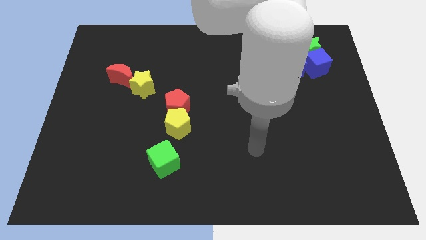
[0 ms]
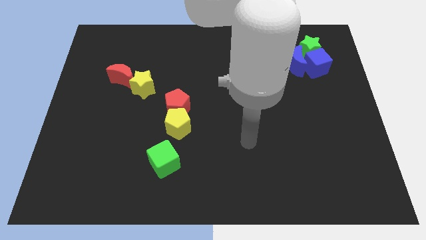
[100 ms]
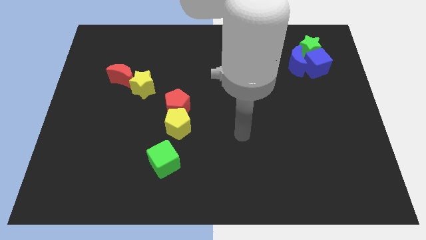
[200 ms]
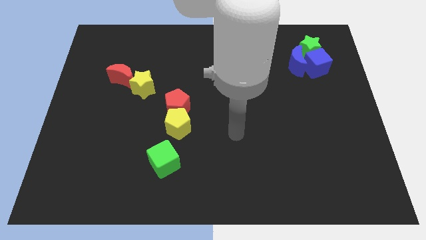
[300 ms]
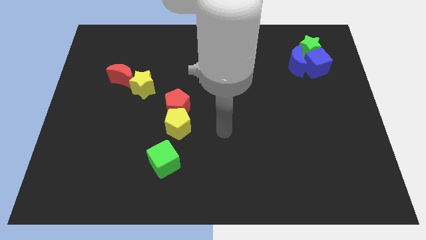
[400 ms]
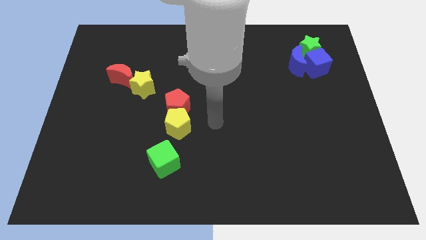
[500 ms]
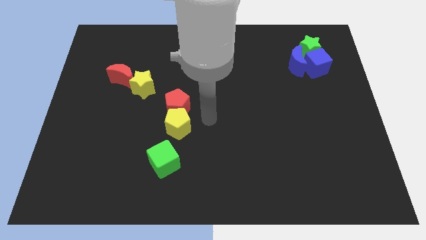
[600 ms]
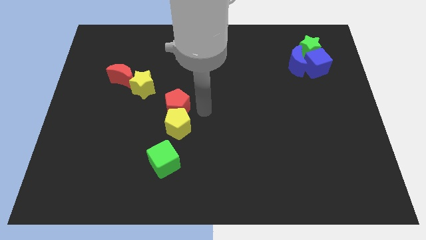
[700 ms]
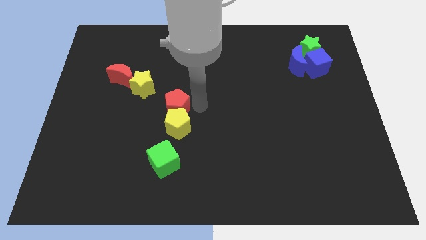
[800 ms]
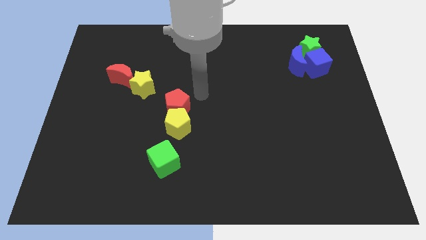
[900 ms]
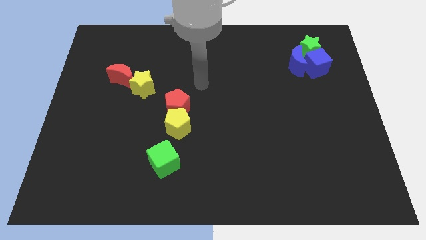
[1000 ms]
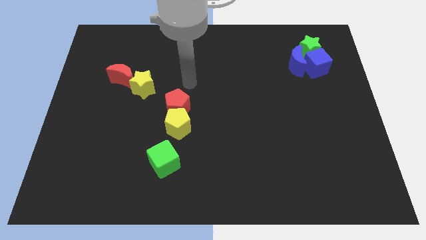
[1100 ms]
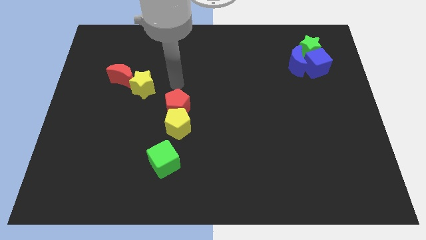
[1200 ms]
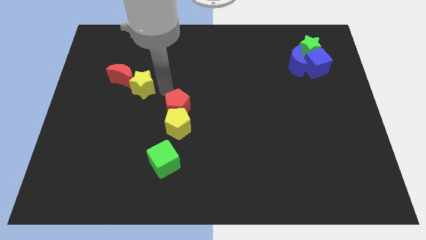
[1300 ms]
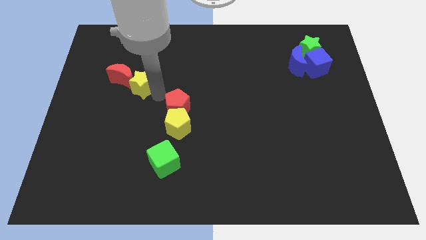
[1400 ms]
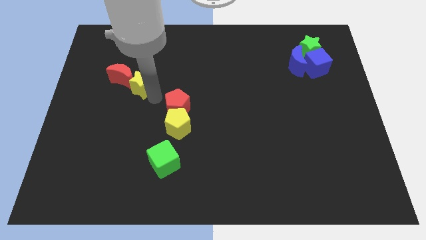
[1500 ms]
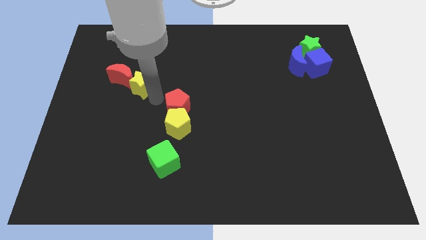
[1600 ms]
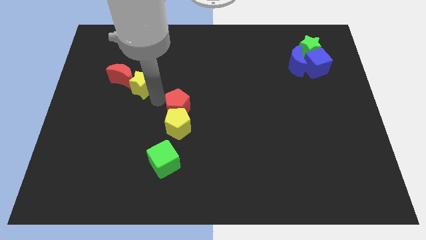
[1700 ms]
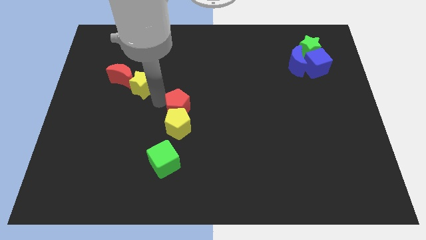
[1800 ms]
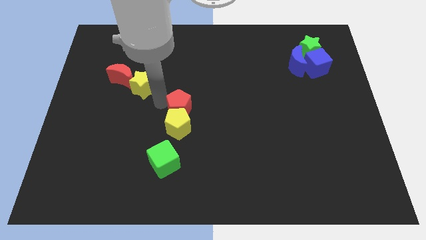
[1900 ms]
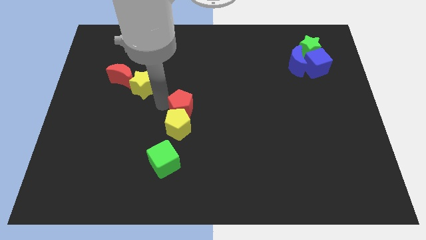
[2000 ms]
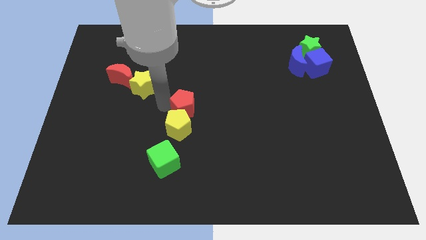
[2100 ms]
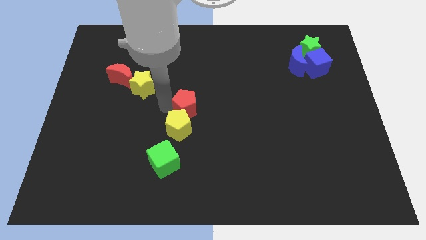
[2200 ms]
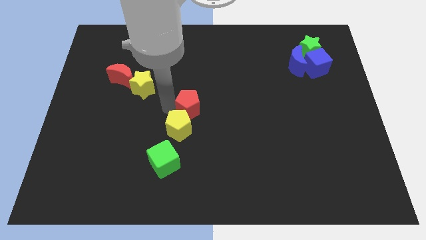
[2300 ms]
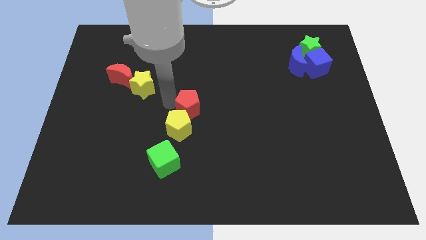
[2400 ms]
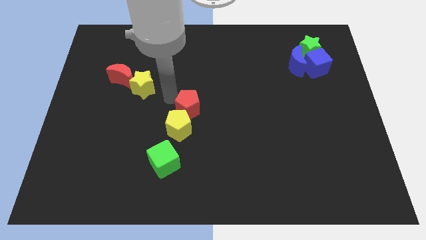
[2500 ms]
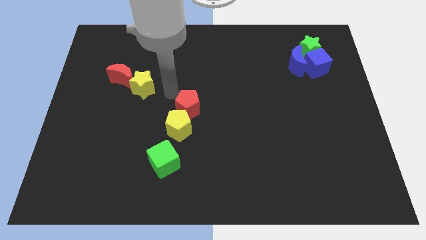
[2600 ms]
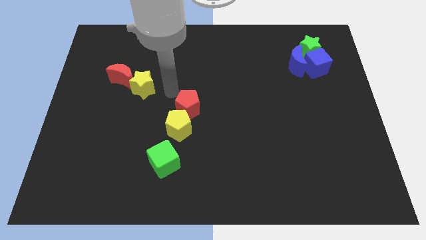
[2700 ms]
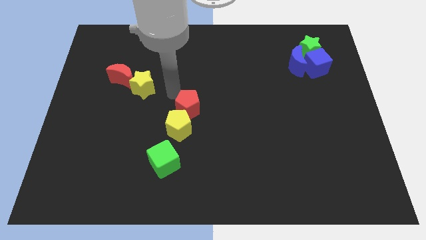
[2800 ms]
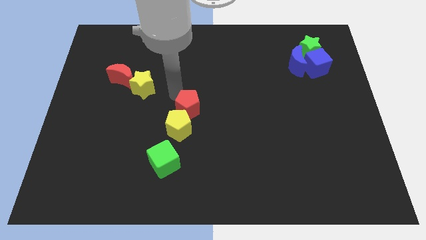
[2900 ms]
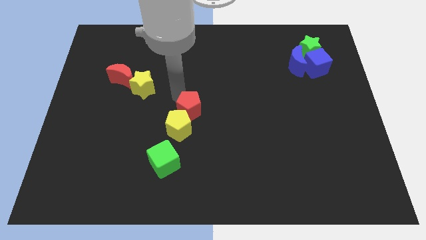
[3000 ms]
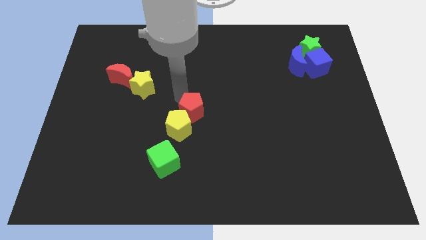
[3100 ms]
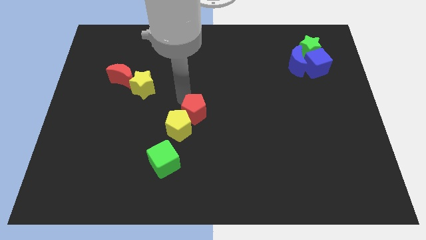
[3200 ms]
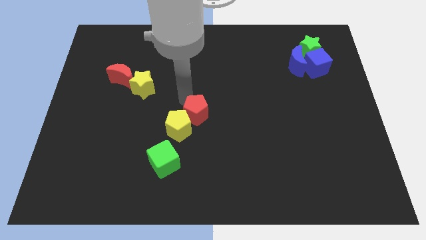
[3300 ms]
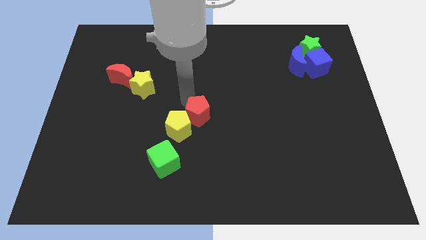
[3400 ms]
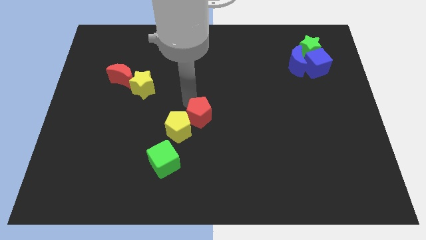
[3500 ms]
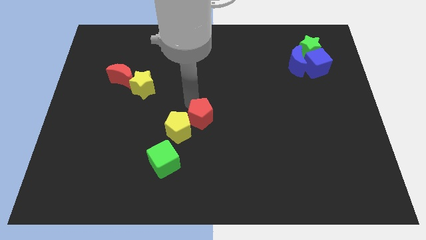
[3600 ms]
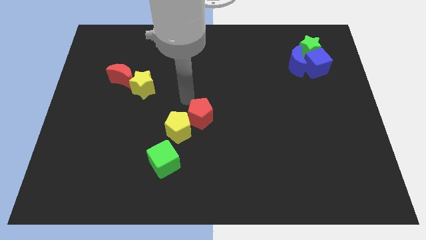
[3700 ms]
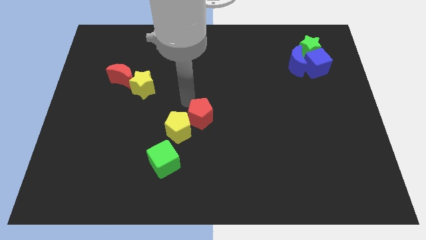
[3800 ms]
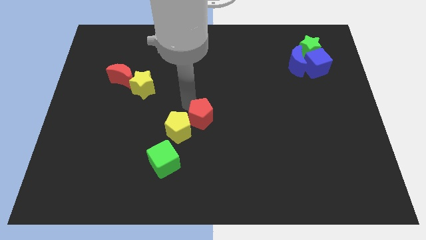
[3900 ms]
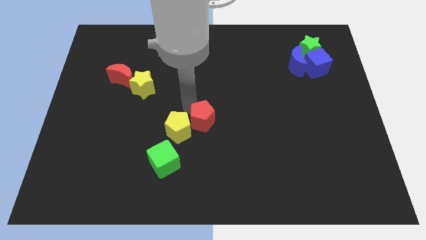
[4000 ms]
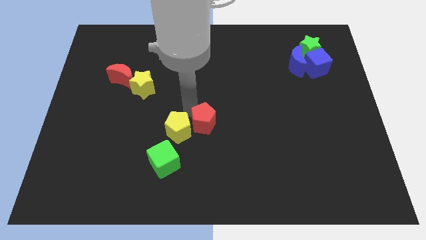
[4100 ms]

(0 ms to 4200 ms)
slightly move the red pentagon downwards and right diagonally

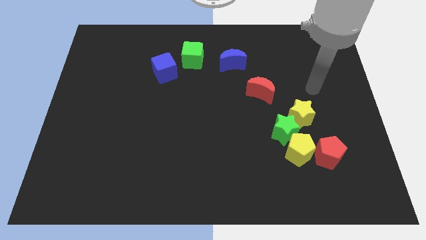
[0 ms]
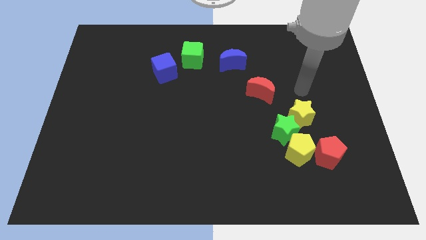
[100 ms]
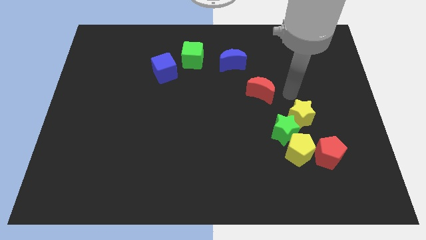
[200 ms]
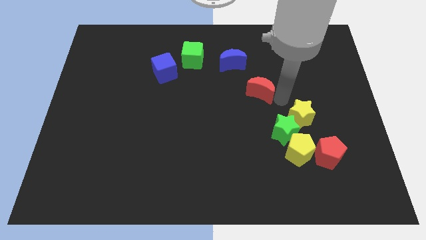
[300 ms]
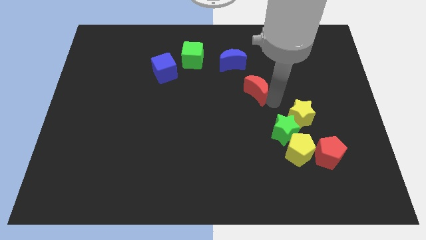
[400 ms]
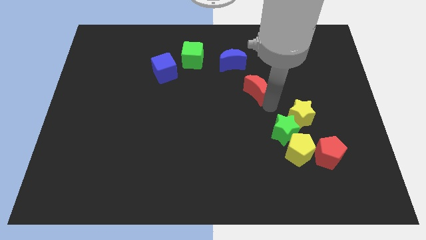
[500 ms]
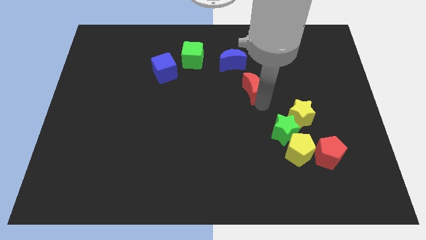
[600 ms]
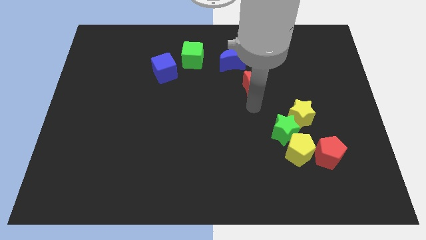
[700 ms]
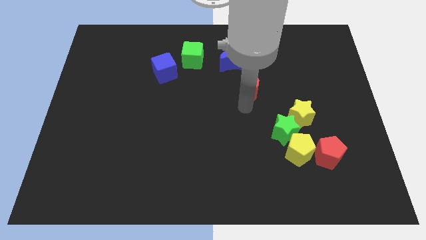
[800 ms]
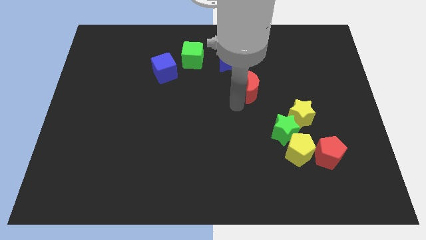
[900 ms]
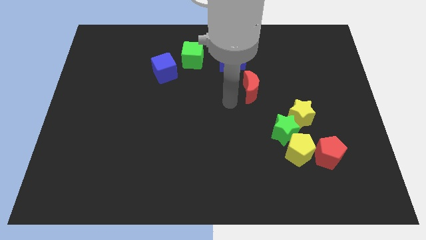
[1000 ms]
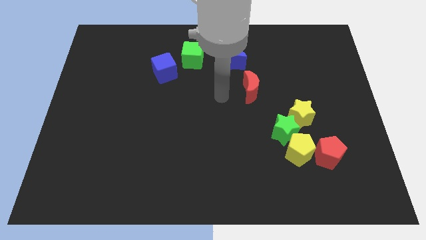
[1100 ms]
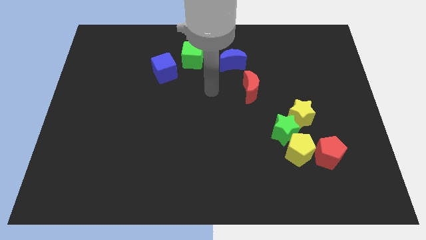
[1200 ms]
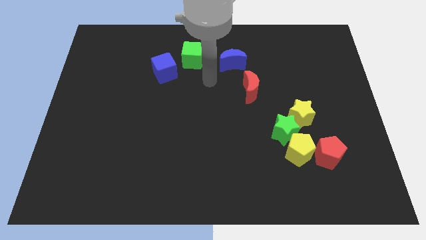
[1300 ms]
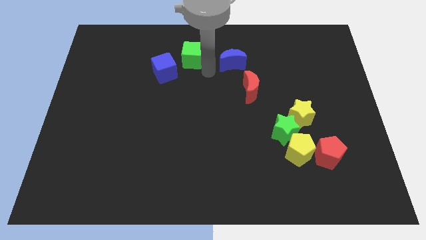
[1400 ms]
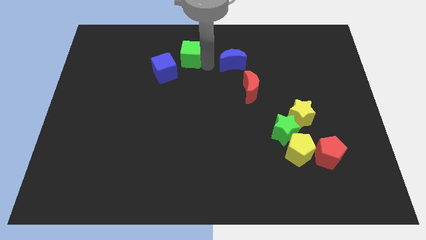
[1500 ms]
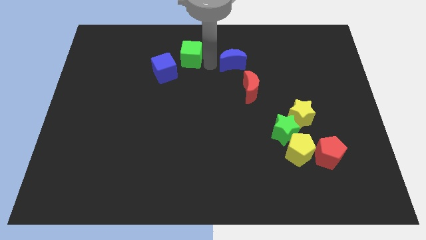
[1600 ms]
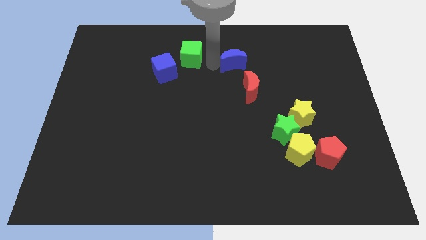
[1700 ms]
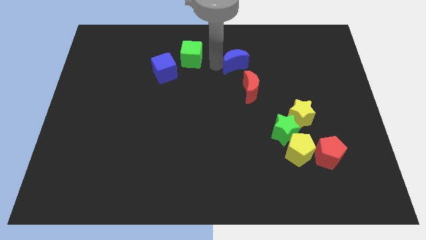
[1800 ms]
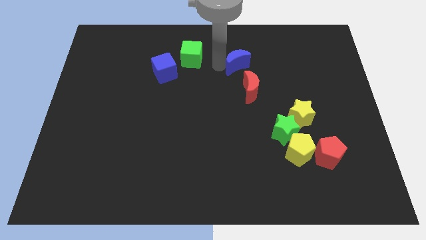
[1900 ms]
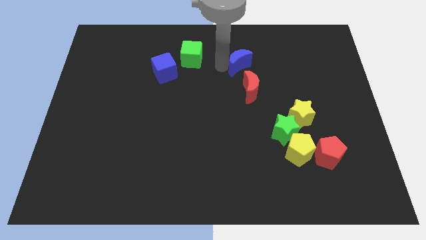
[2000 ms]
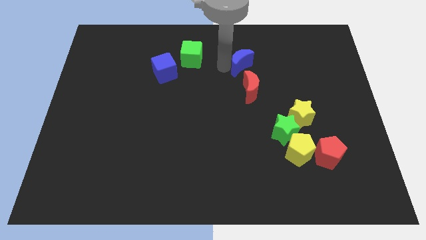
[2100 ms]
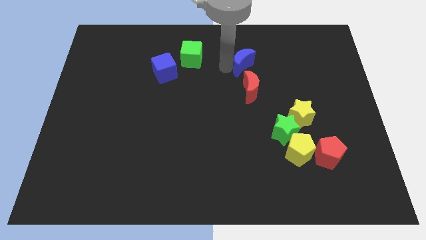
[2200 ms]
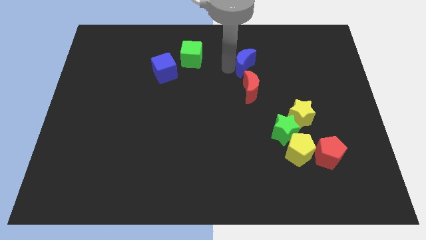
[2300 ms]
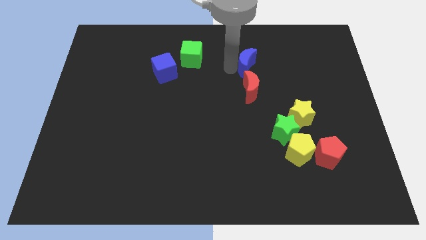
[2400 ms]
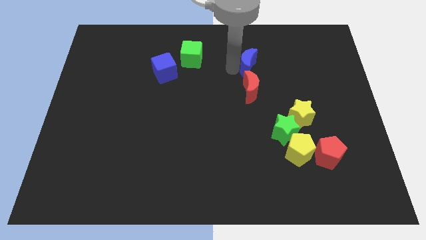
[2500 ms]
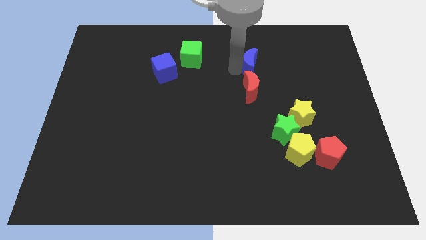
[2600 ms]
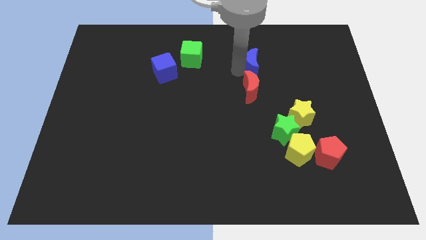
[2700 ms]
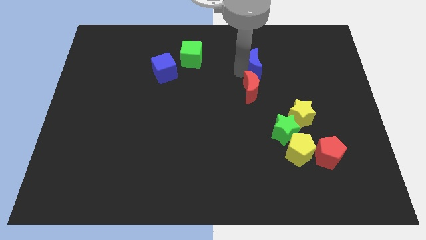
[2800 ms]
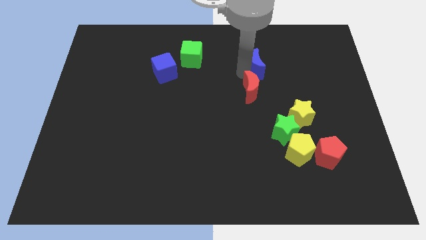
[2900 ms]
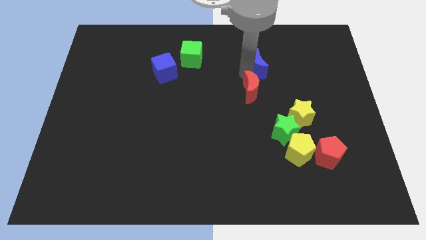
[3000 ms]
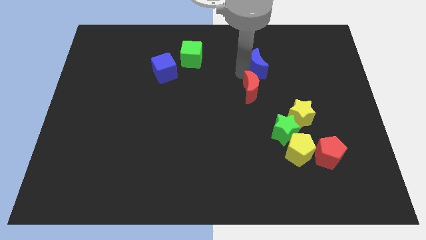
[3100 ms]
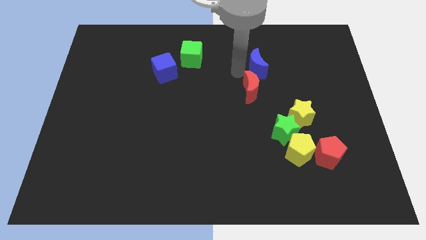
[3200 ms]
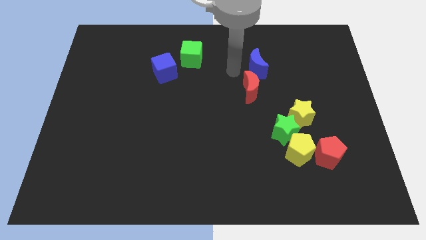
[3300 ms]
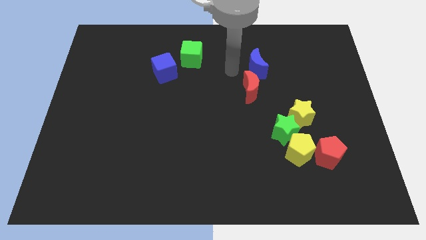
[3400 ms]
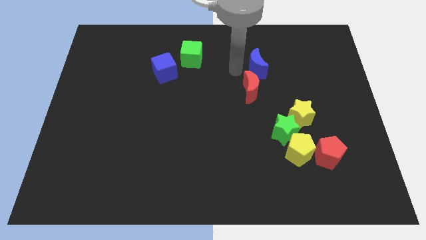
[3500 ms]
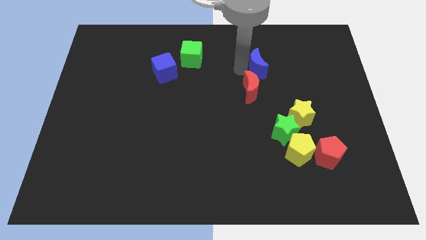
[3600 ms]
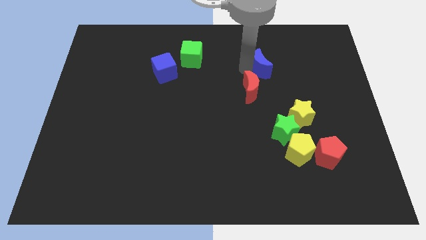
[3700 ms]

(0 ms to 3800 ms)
move the blue moon right a little
